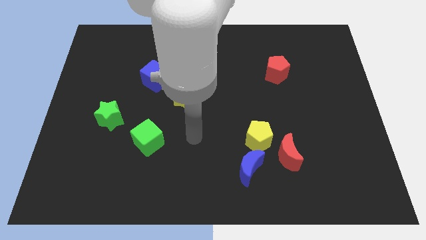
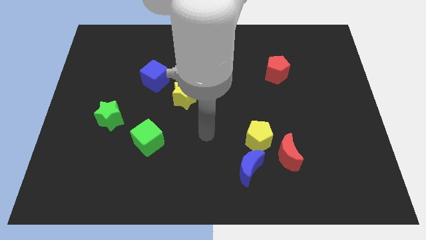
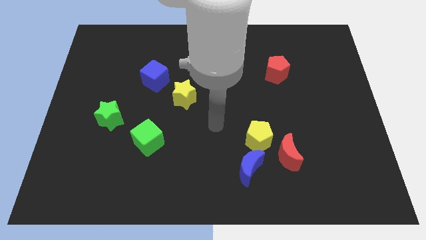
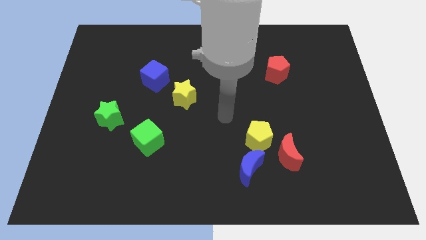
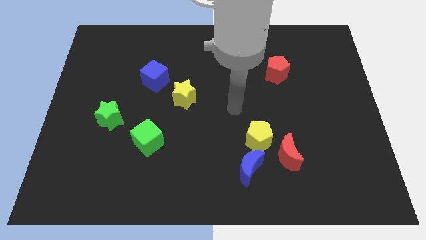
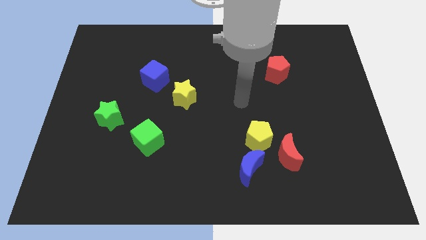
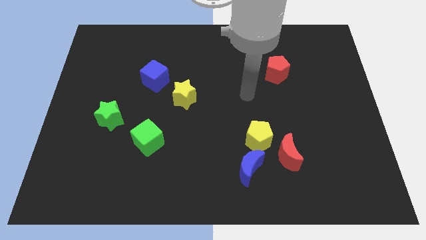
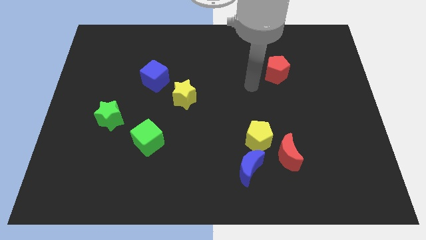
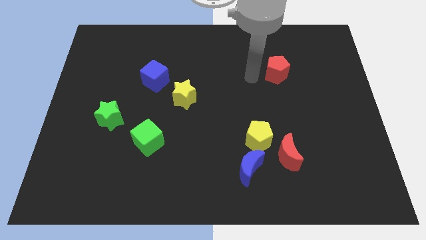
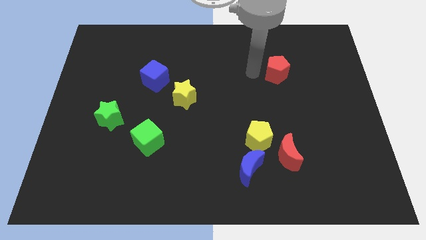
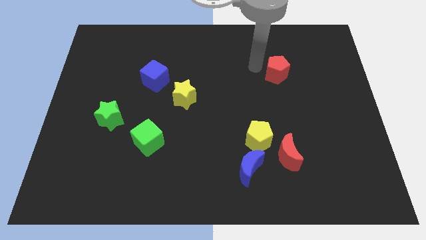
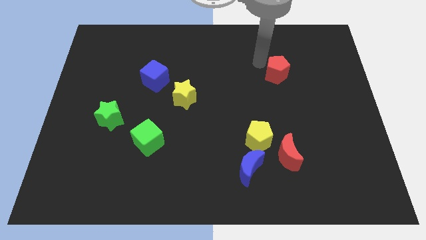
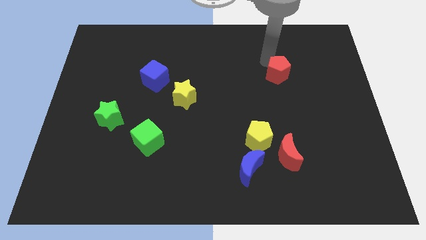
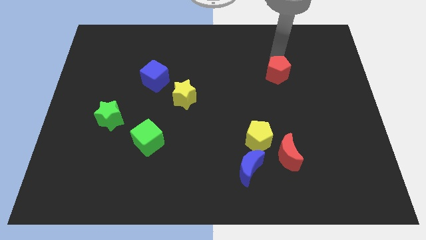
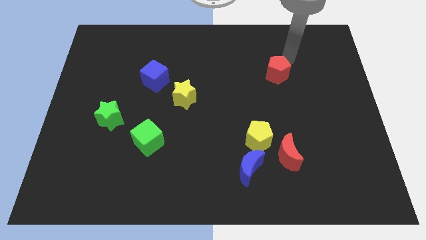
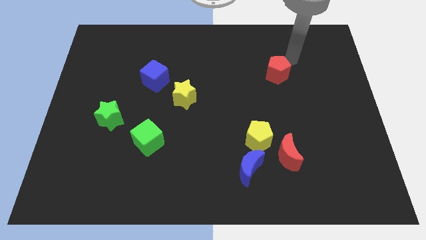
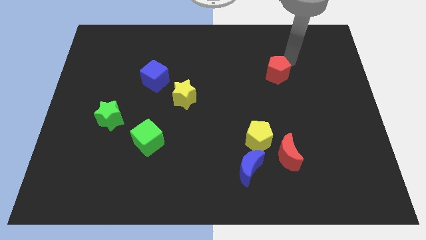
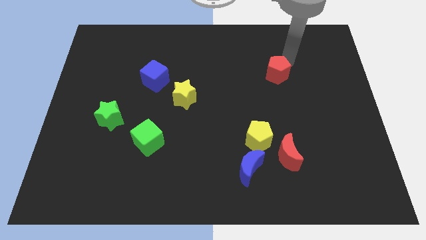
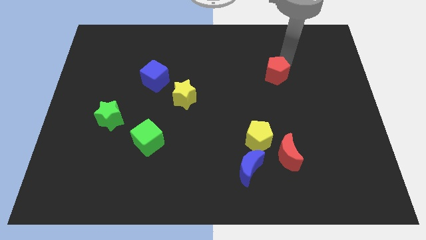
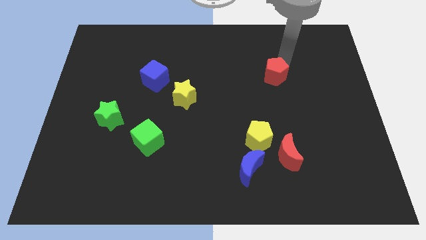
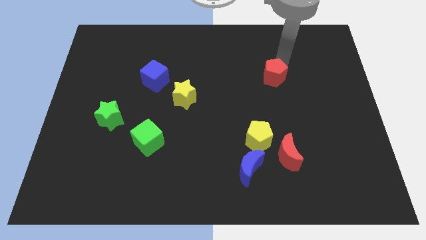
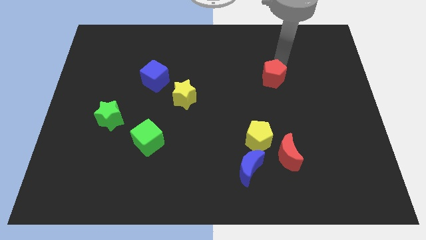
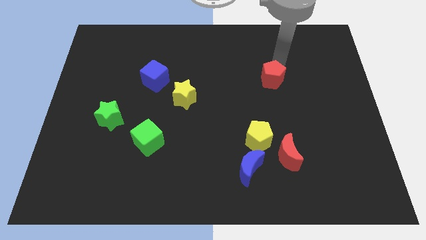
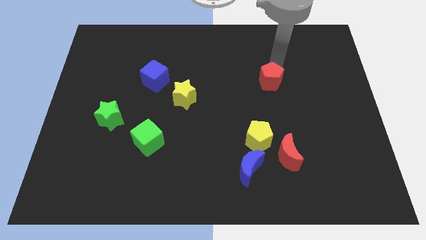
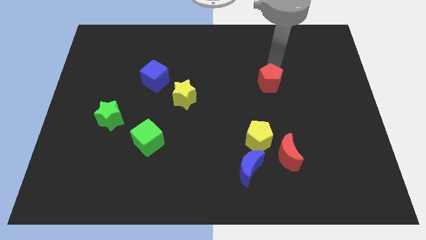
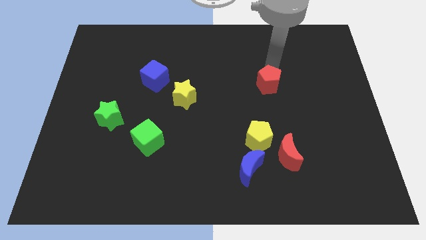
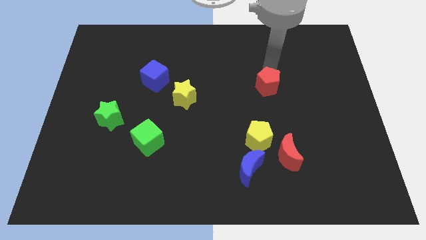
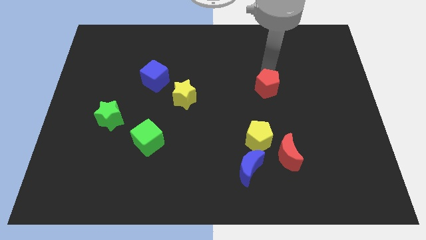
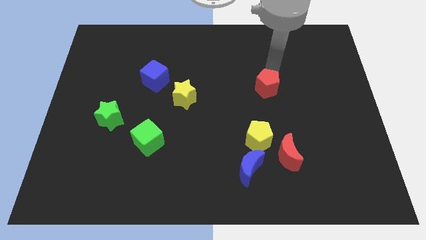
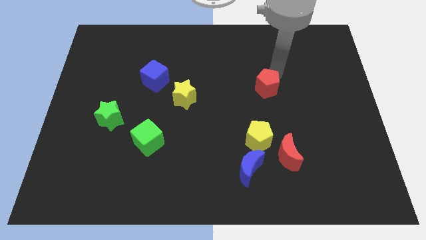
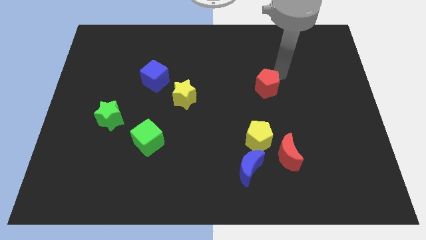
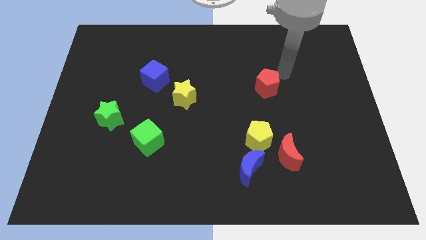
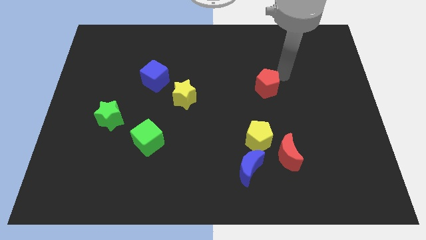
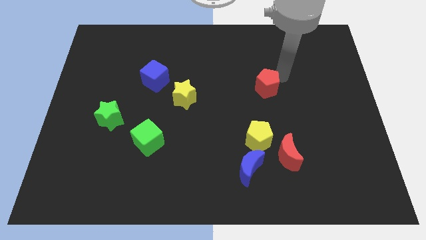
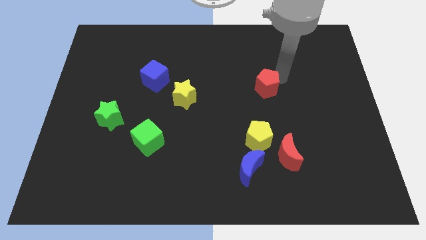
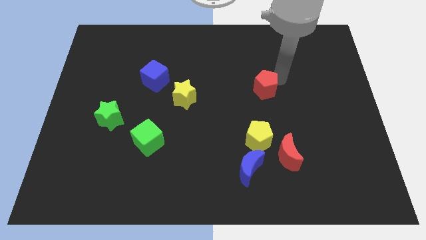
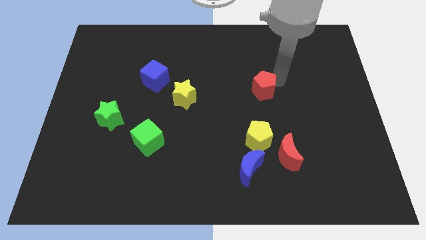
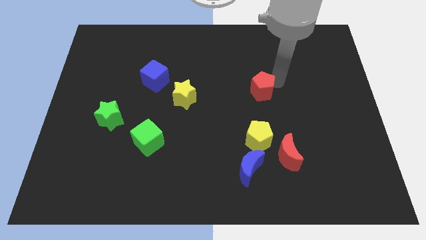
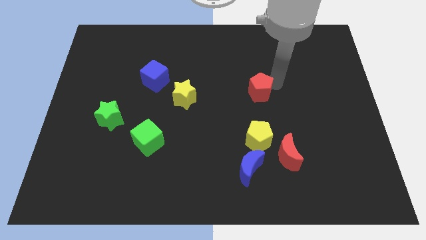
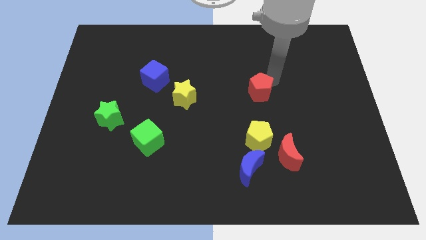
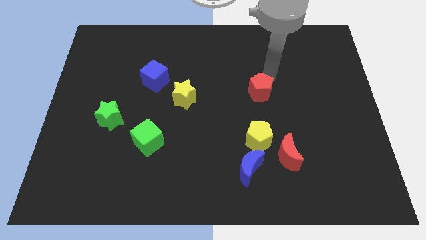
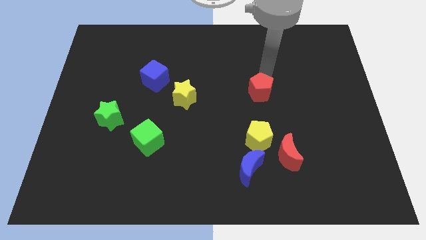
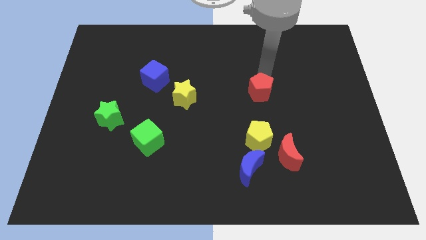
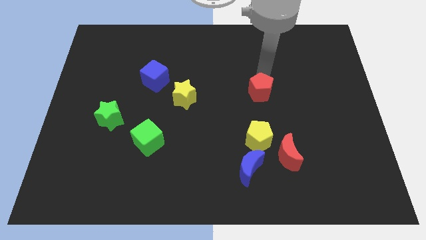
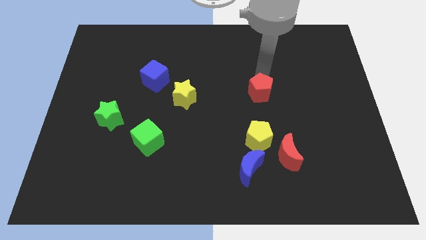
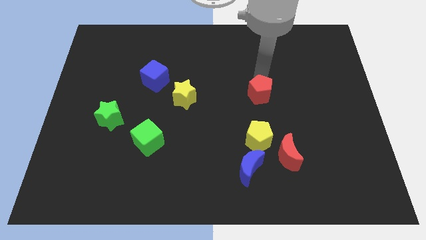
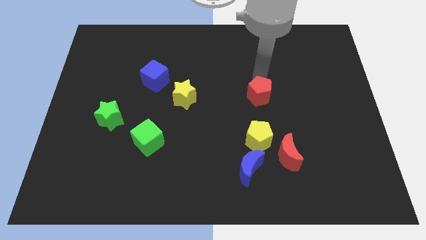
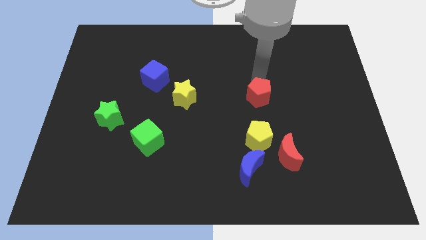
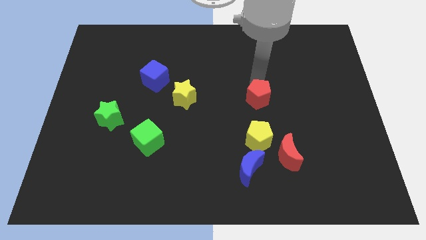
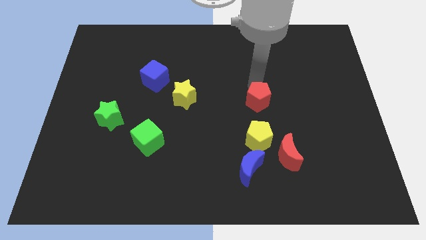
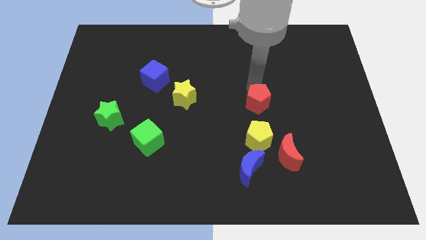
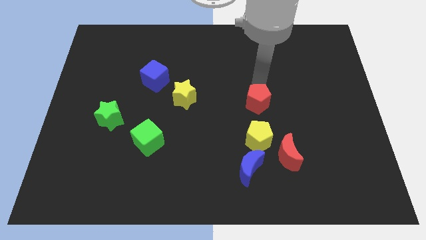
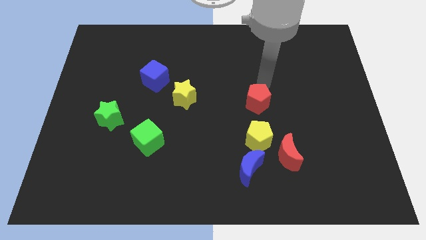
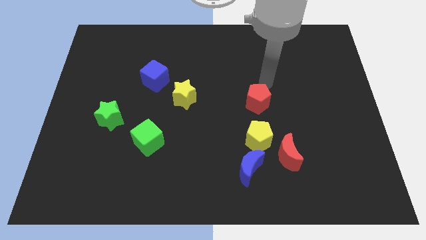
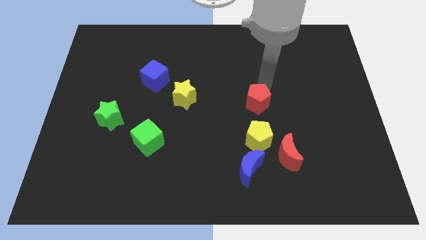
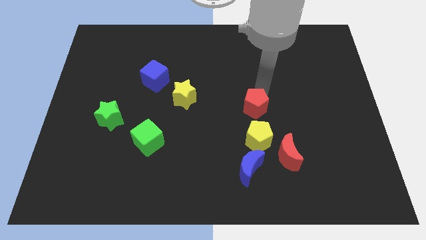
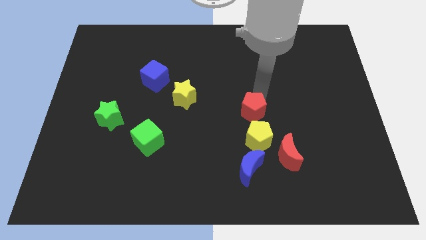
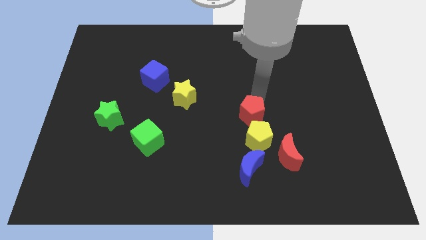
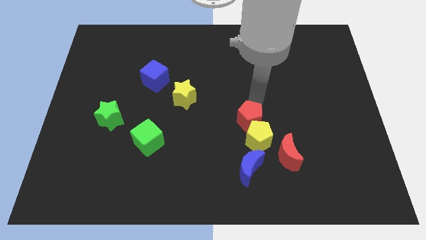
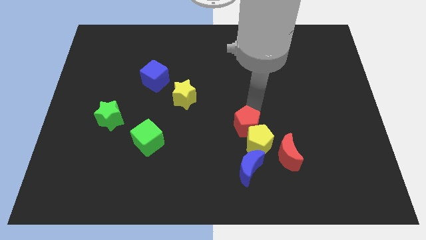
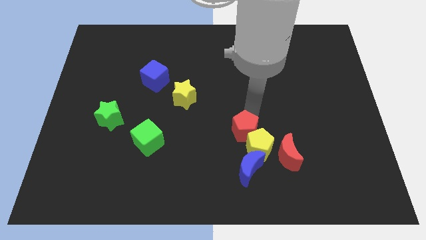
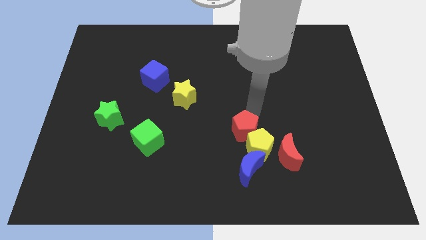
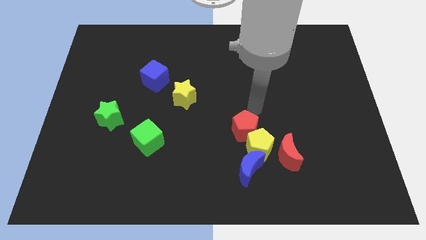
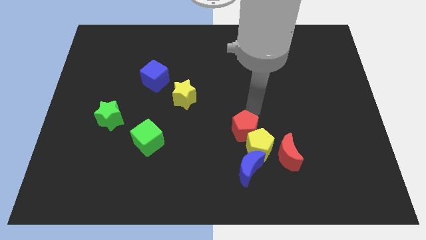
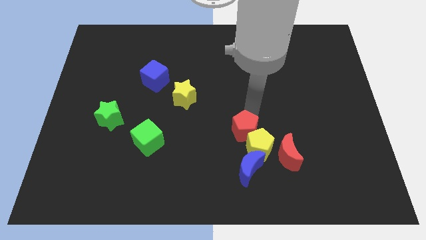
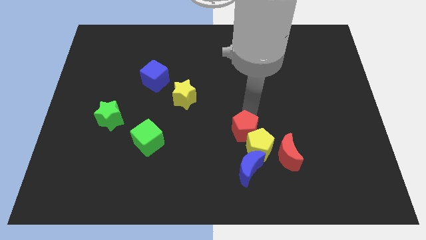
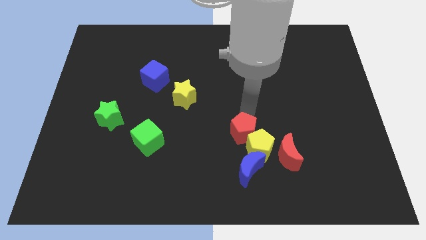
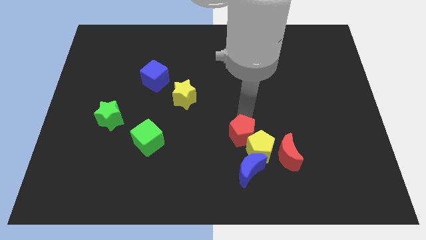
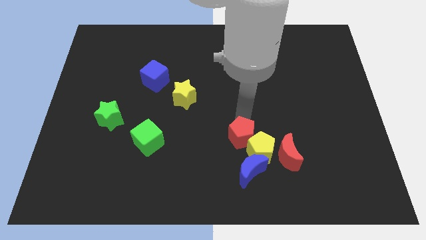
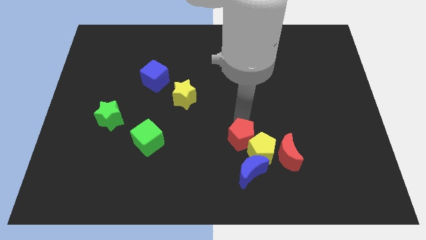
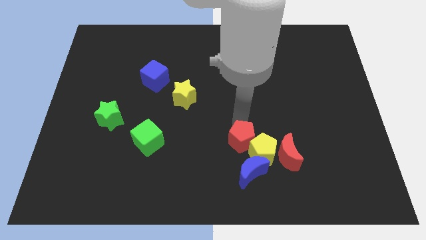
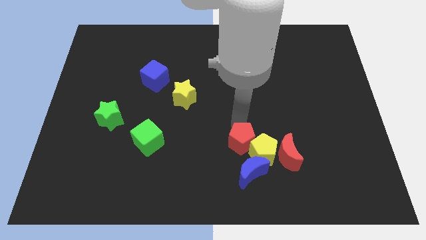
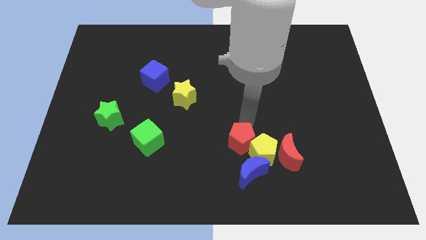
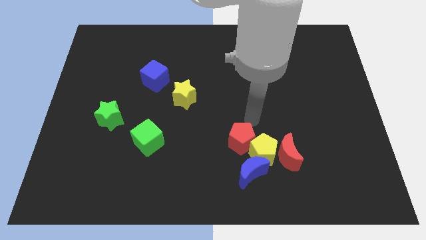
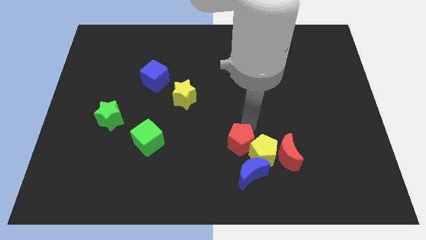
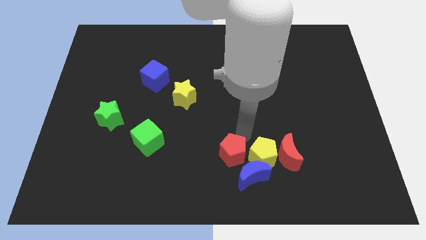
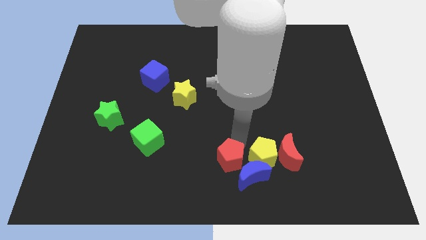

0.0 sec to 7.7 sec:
move the red pentagon to the bottom side
